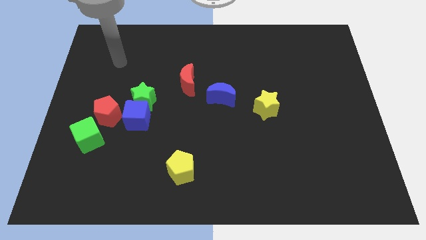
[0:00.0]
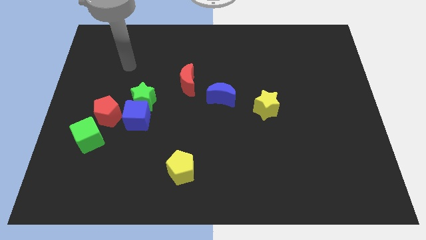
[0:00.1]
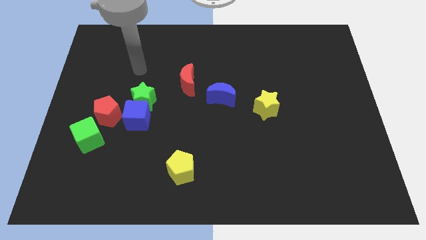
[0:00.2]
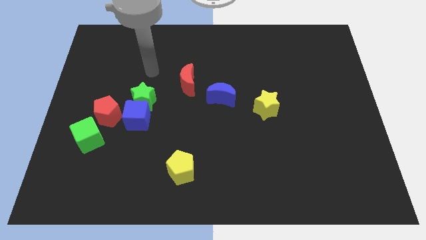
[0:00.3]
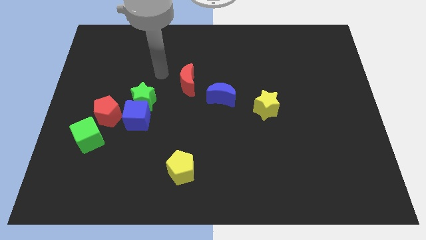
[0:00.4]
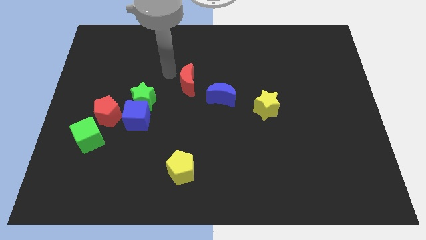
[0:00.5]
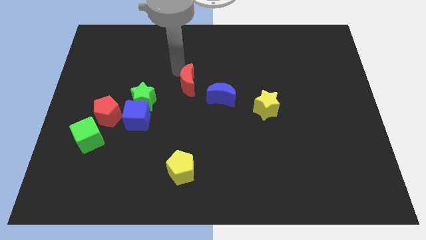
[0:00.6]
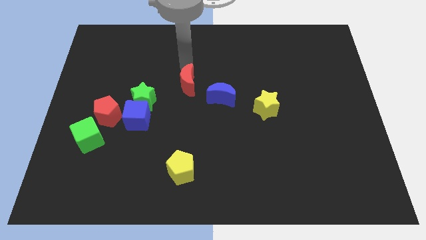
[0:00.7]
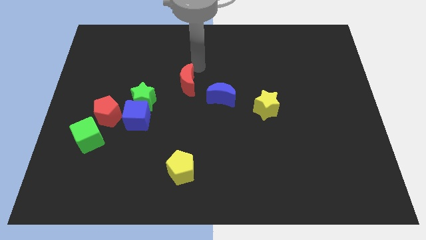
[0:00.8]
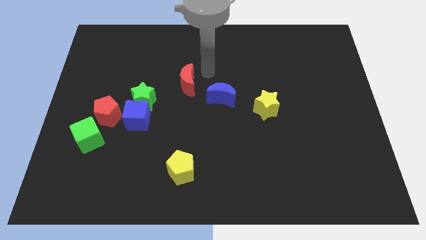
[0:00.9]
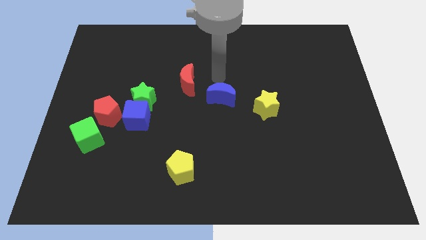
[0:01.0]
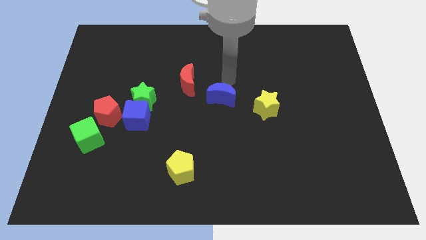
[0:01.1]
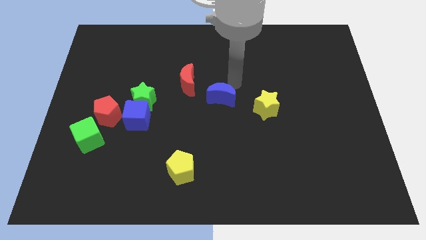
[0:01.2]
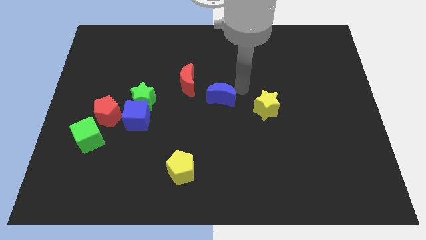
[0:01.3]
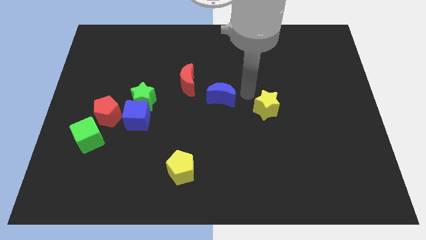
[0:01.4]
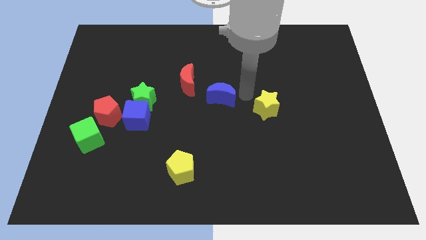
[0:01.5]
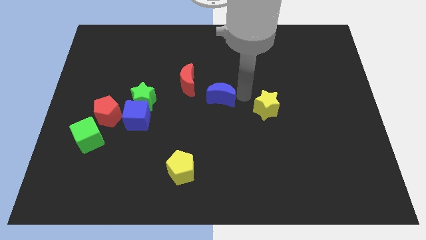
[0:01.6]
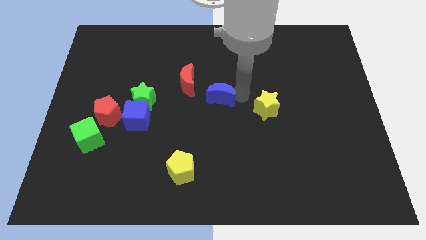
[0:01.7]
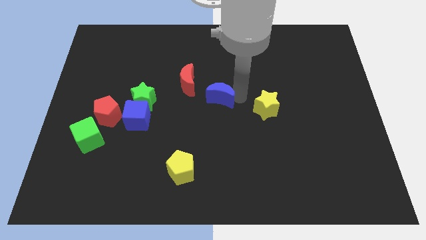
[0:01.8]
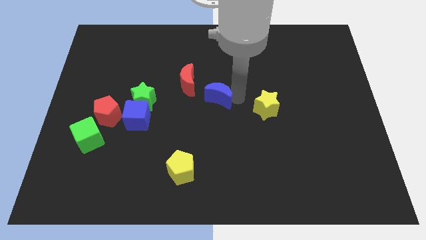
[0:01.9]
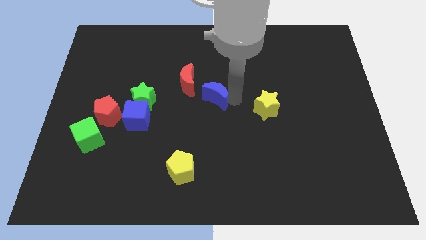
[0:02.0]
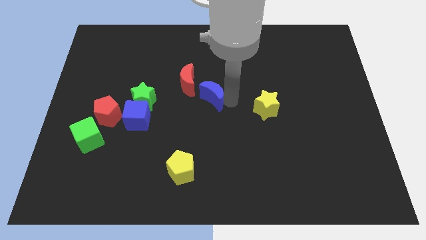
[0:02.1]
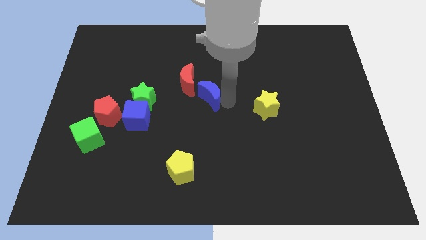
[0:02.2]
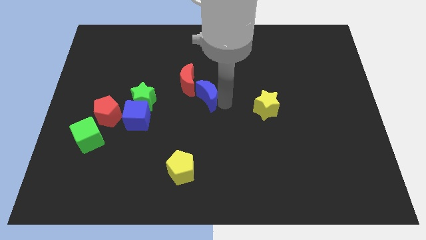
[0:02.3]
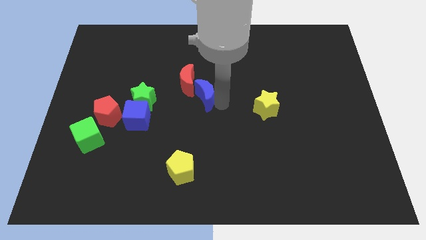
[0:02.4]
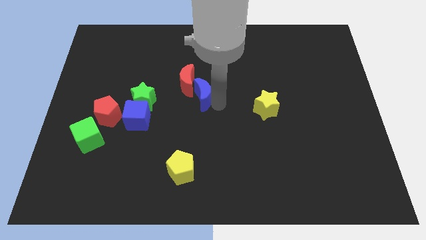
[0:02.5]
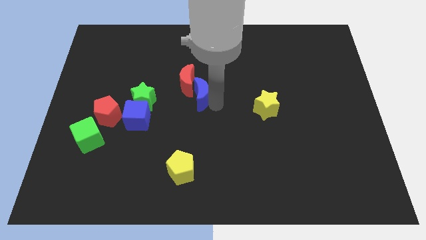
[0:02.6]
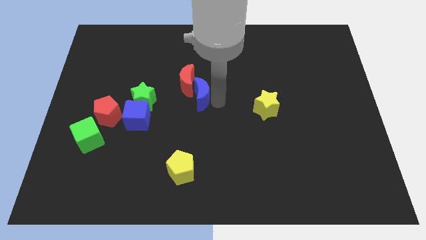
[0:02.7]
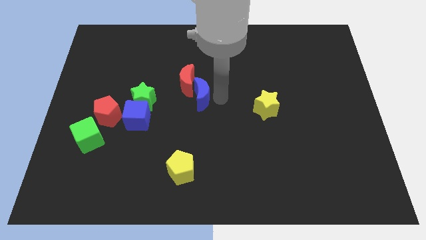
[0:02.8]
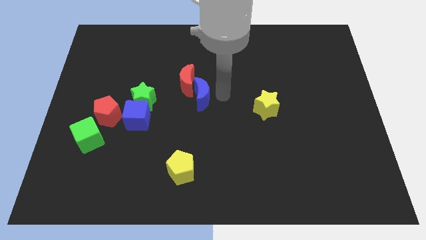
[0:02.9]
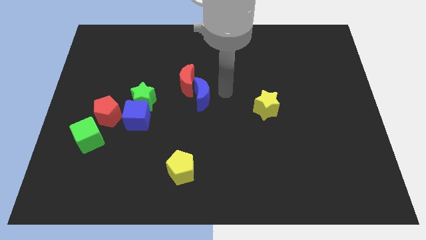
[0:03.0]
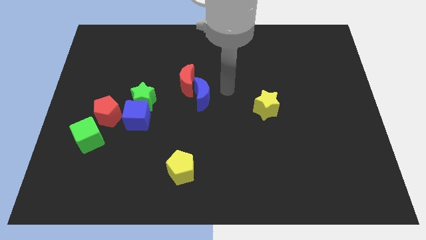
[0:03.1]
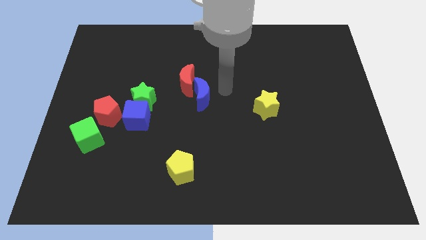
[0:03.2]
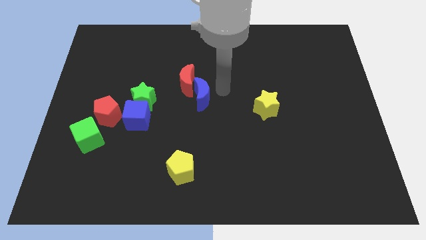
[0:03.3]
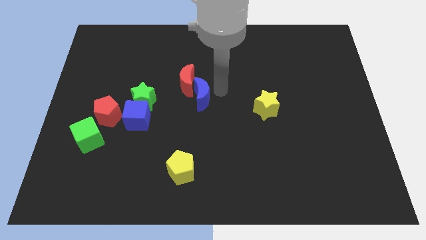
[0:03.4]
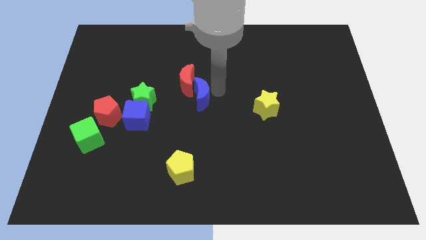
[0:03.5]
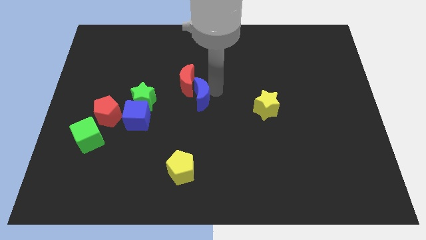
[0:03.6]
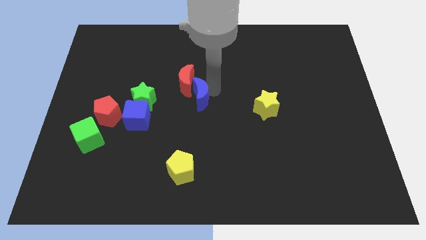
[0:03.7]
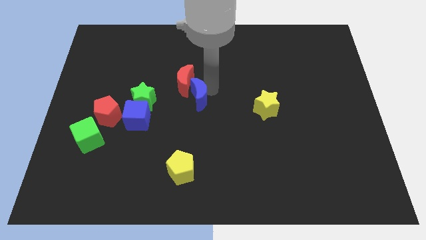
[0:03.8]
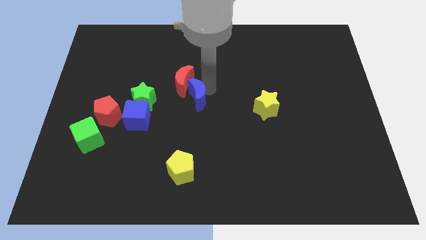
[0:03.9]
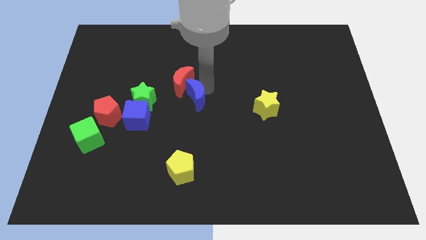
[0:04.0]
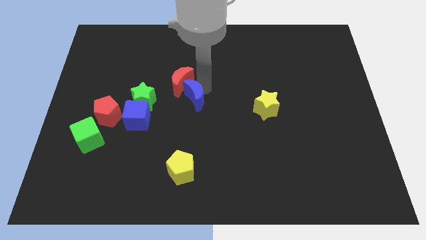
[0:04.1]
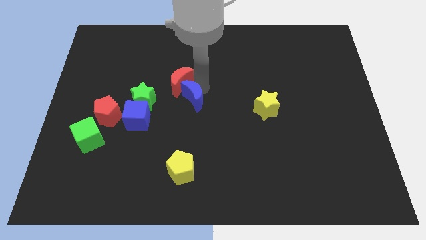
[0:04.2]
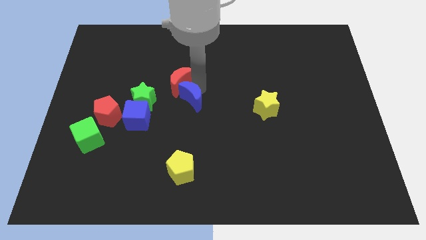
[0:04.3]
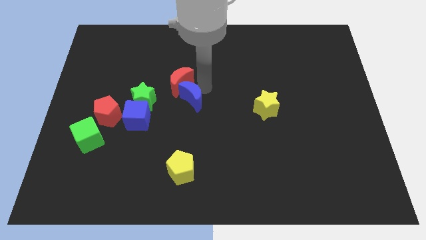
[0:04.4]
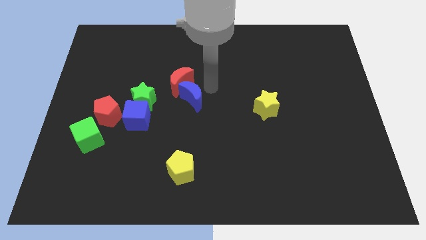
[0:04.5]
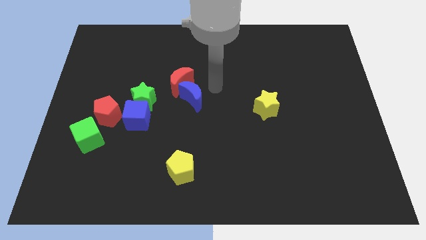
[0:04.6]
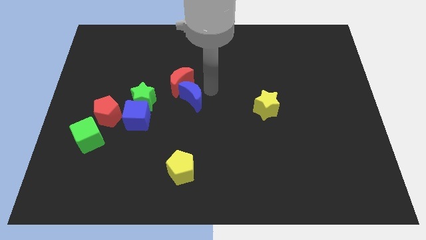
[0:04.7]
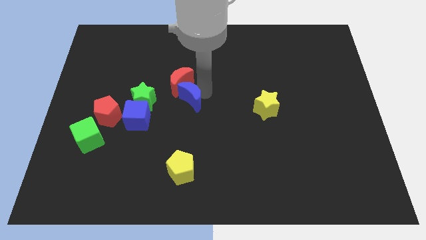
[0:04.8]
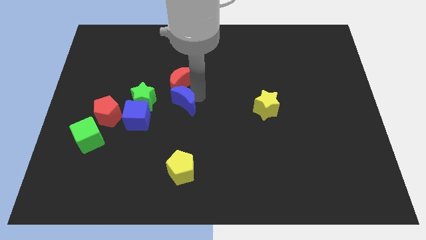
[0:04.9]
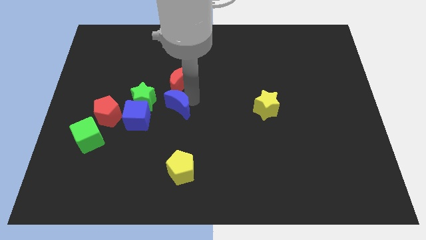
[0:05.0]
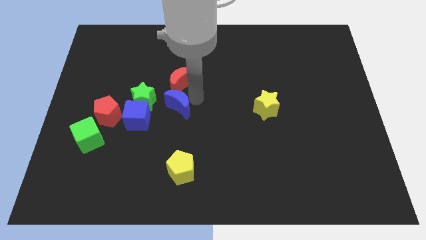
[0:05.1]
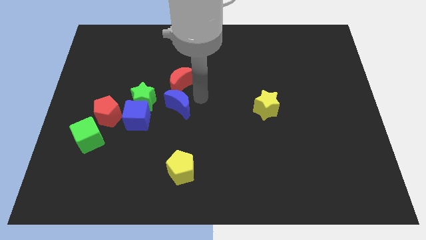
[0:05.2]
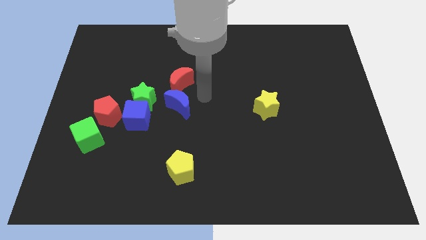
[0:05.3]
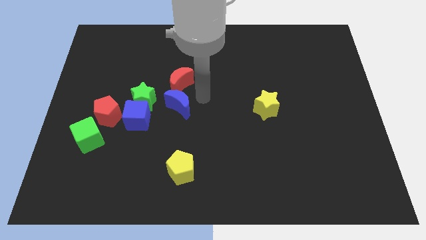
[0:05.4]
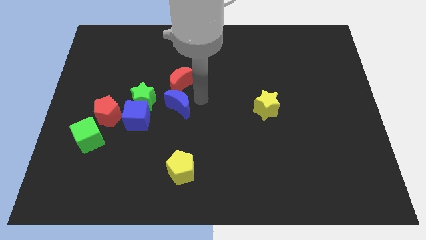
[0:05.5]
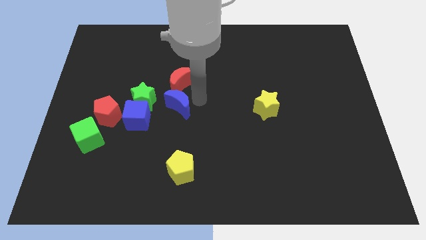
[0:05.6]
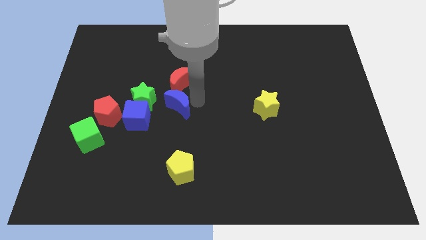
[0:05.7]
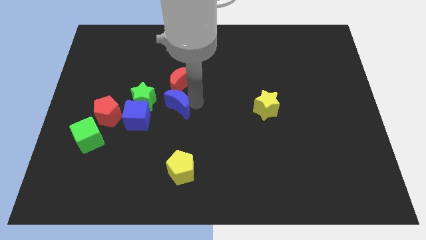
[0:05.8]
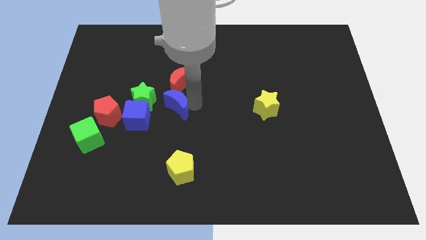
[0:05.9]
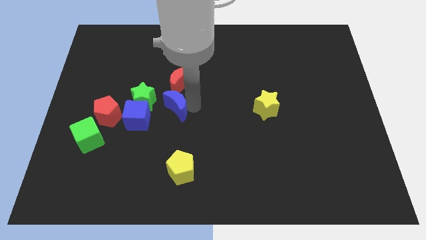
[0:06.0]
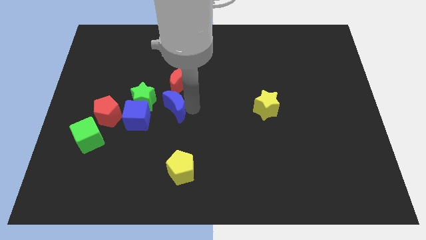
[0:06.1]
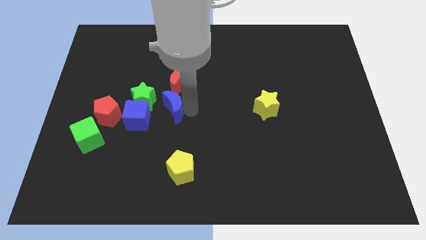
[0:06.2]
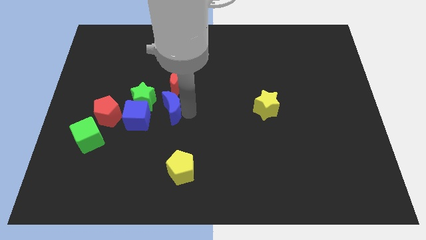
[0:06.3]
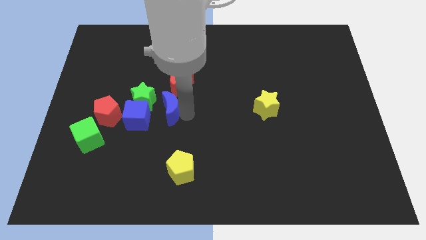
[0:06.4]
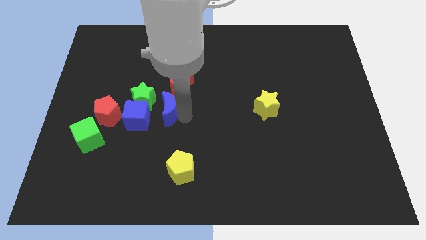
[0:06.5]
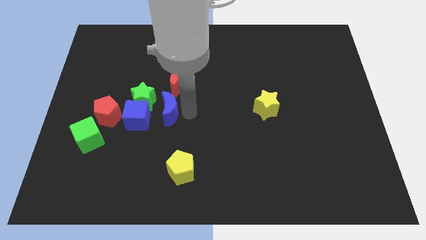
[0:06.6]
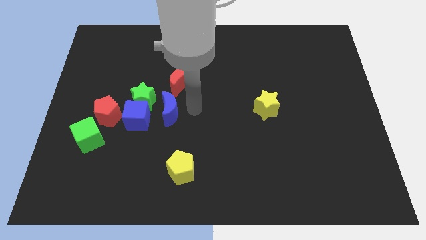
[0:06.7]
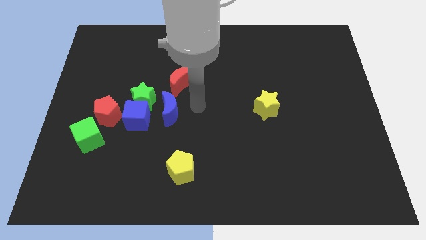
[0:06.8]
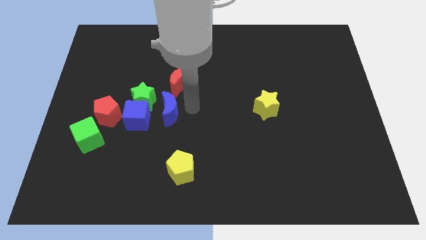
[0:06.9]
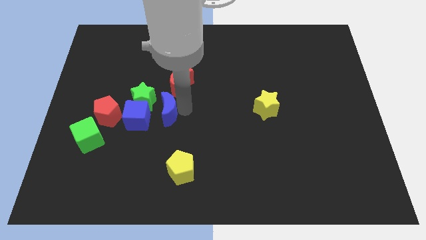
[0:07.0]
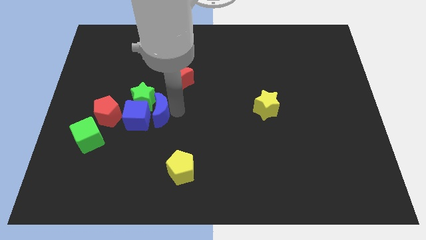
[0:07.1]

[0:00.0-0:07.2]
move the blue moon next to the blue cube
